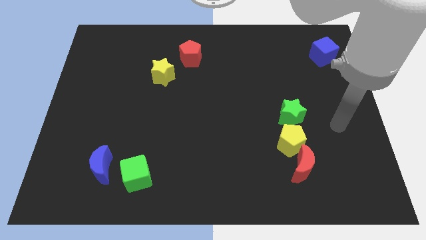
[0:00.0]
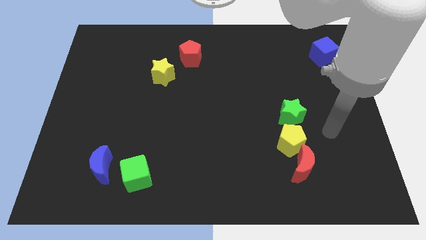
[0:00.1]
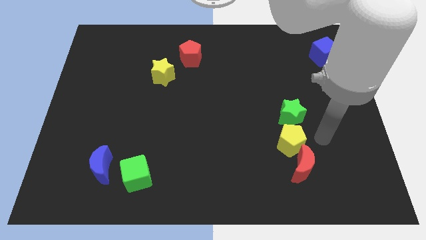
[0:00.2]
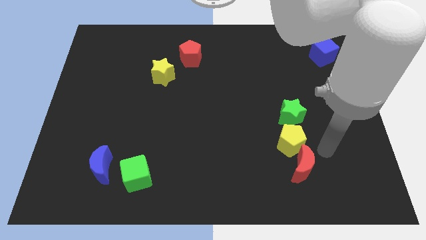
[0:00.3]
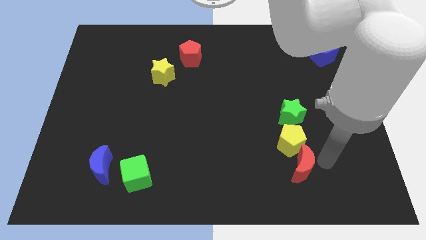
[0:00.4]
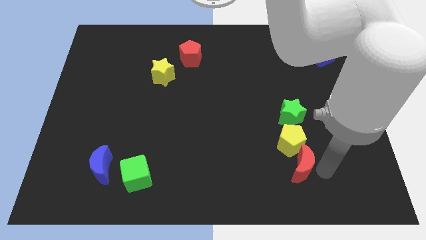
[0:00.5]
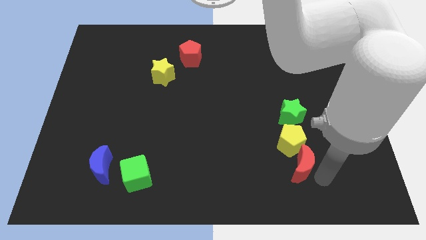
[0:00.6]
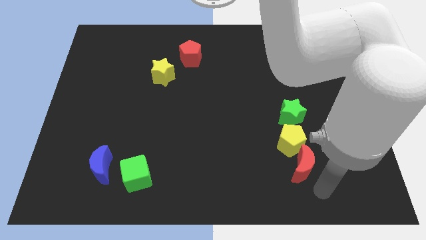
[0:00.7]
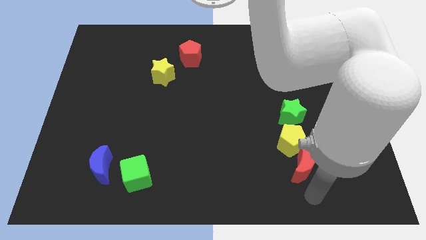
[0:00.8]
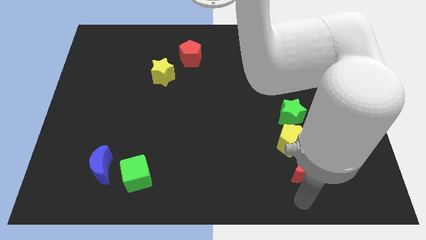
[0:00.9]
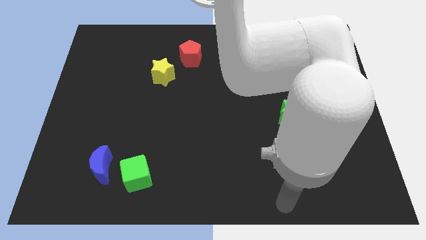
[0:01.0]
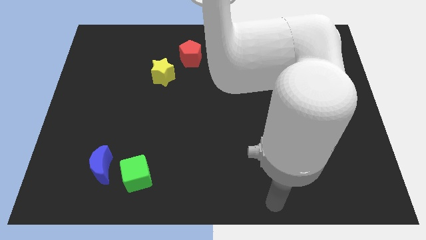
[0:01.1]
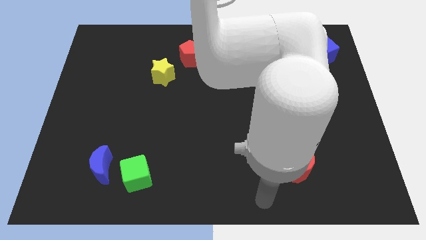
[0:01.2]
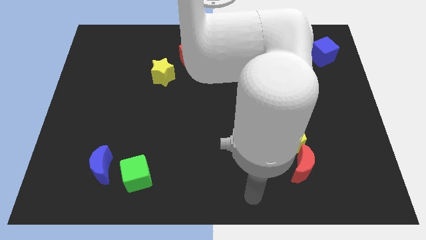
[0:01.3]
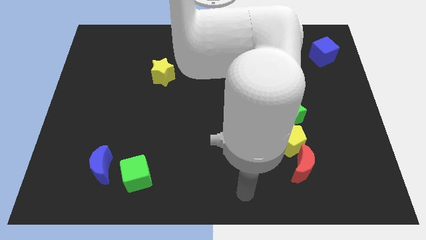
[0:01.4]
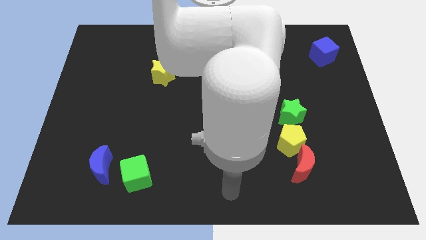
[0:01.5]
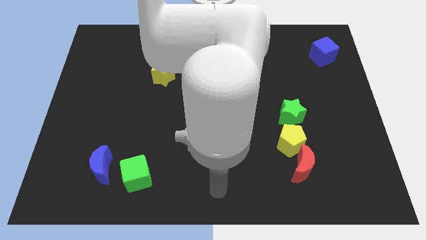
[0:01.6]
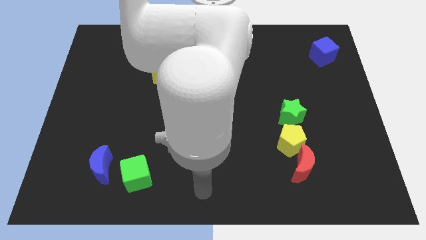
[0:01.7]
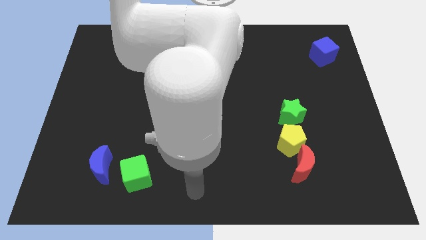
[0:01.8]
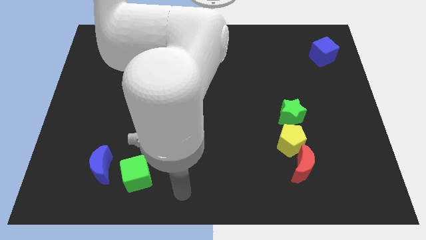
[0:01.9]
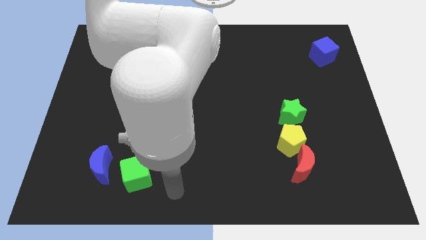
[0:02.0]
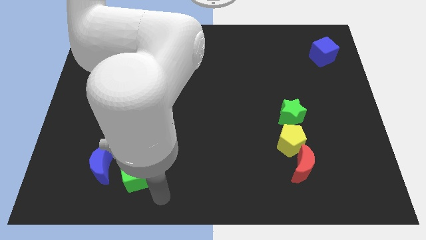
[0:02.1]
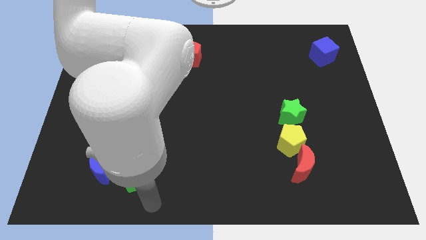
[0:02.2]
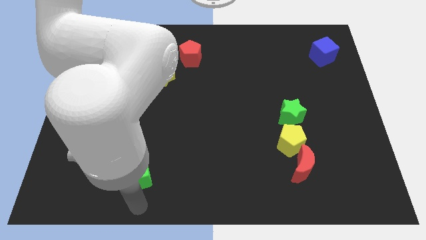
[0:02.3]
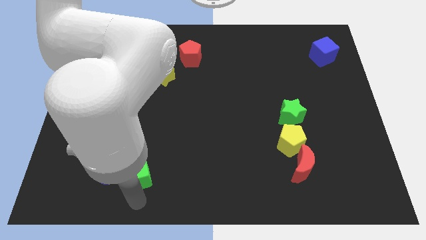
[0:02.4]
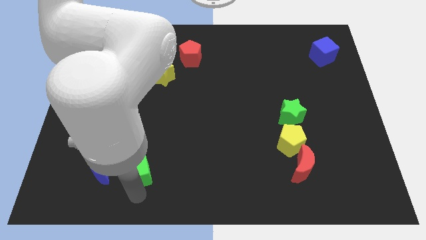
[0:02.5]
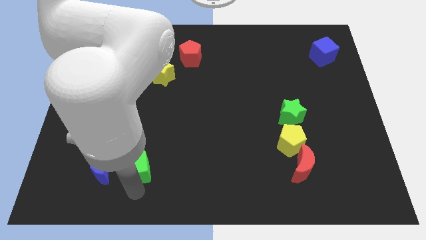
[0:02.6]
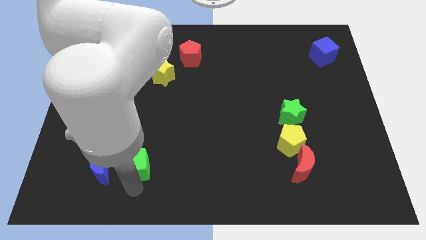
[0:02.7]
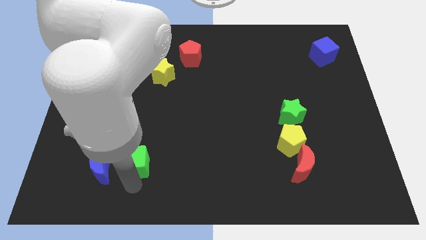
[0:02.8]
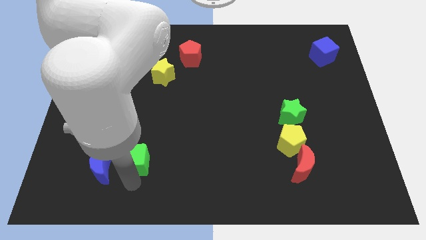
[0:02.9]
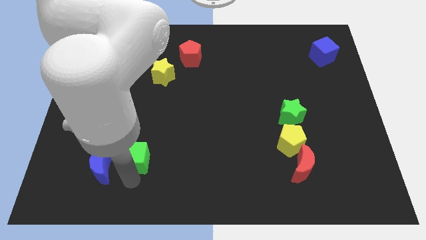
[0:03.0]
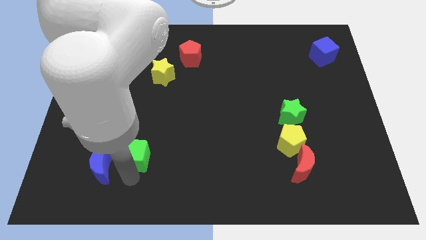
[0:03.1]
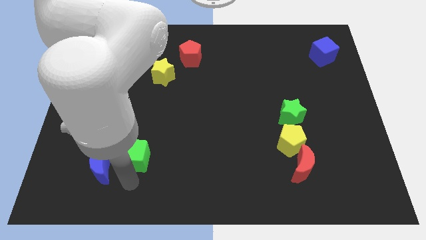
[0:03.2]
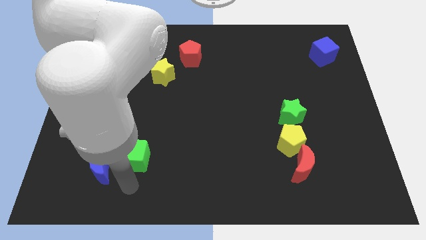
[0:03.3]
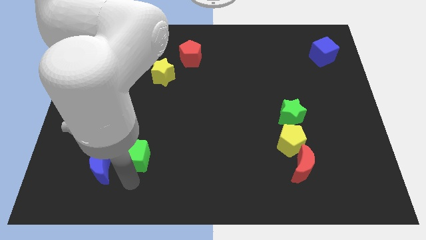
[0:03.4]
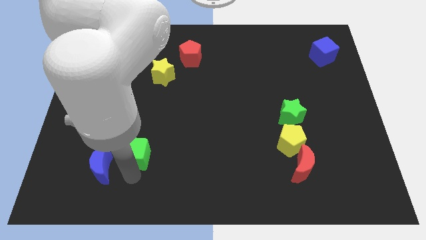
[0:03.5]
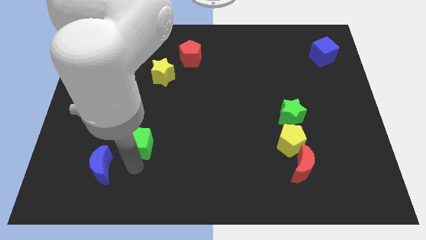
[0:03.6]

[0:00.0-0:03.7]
move the green cube a little upwards

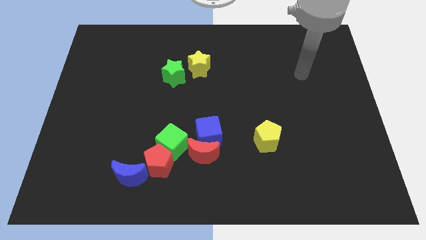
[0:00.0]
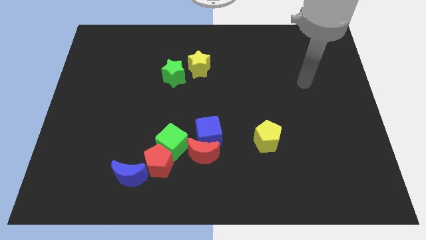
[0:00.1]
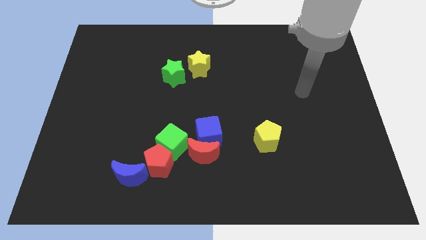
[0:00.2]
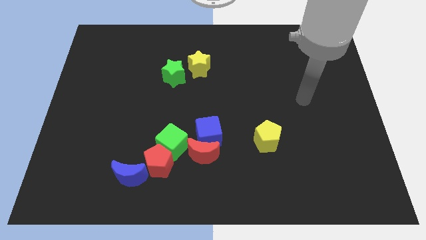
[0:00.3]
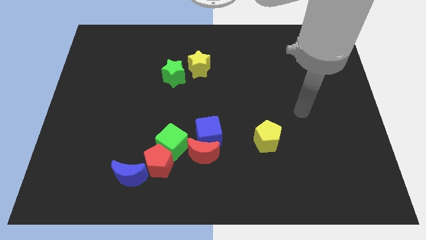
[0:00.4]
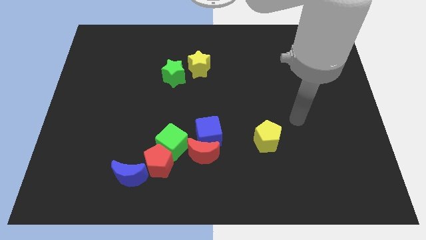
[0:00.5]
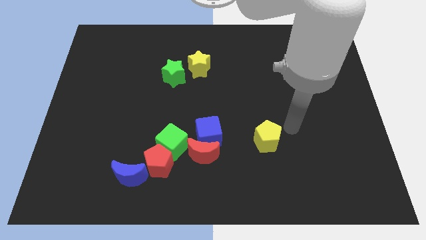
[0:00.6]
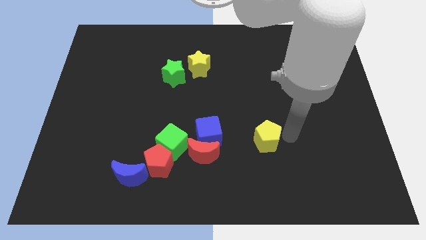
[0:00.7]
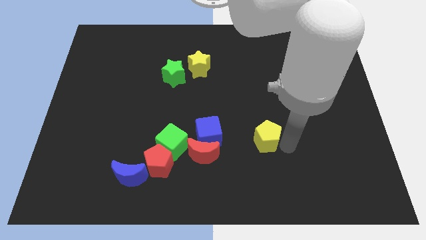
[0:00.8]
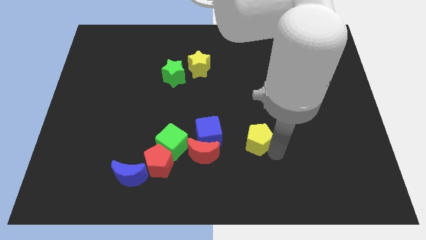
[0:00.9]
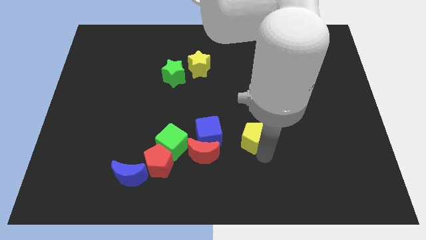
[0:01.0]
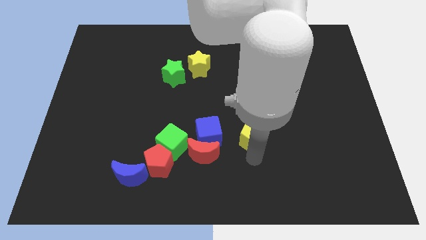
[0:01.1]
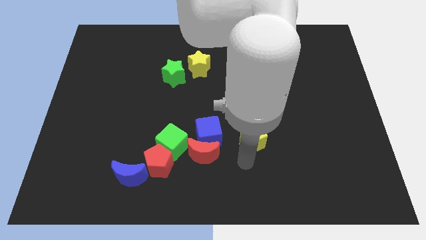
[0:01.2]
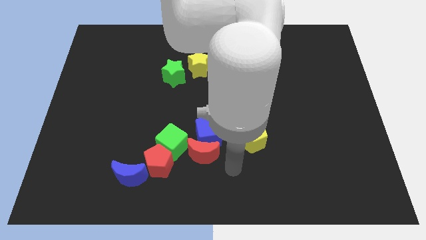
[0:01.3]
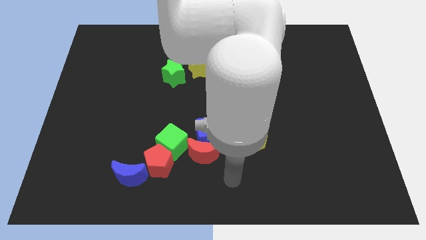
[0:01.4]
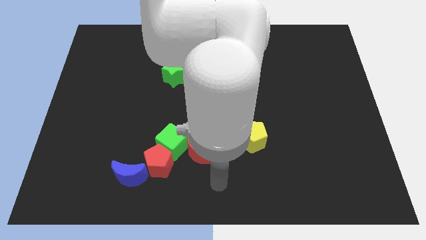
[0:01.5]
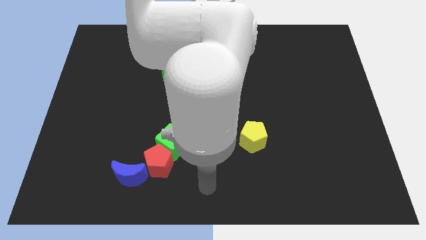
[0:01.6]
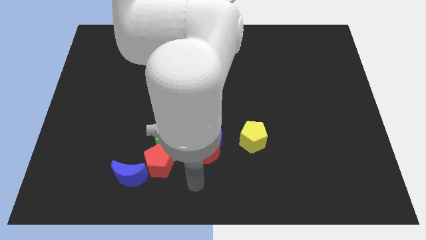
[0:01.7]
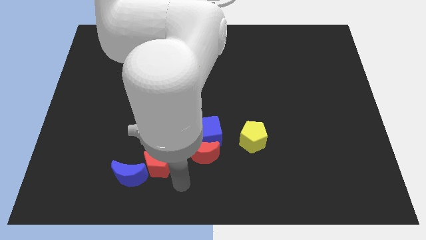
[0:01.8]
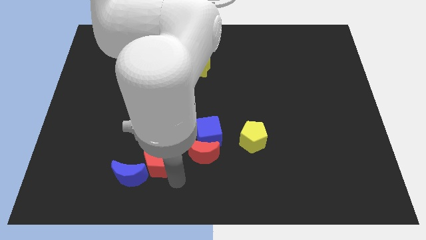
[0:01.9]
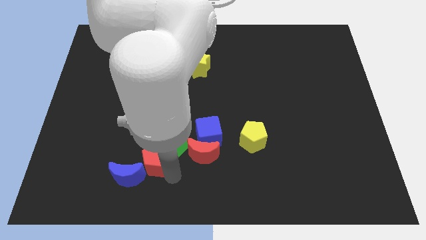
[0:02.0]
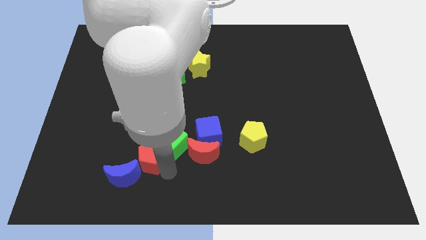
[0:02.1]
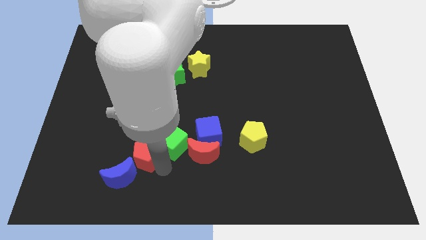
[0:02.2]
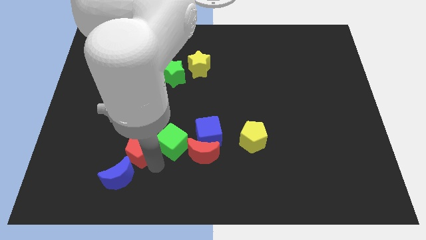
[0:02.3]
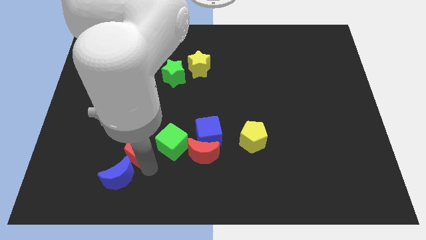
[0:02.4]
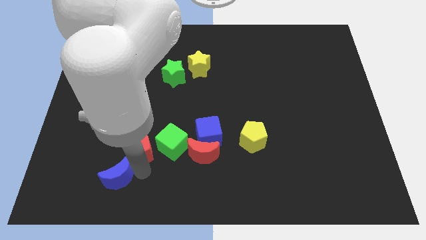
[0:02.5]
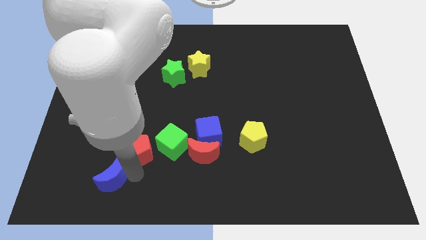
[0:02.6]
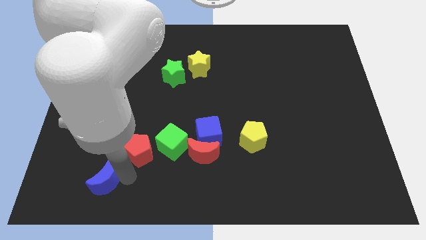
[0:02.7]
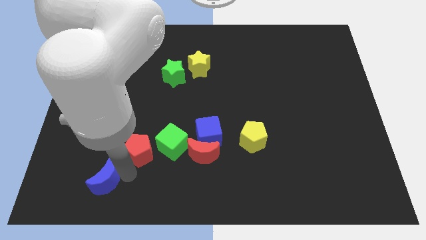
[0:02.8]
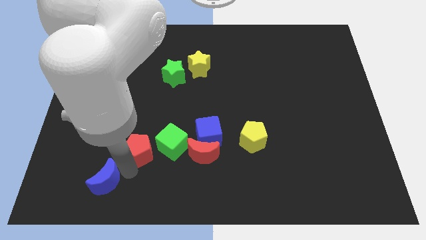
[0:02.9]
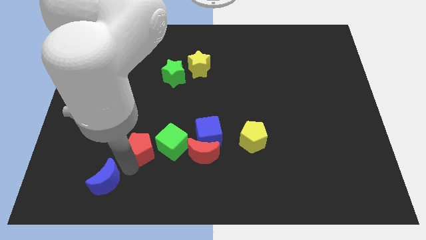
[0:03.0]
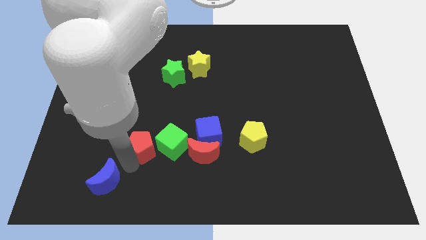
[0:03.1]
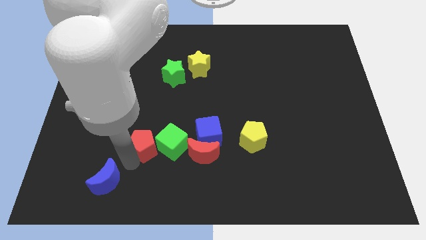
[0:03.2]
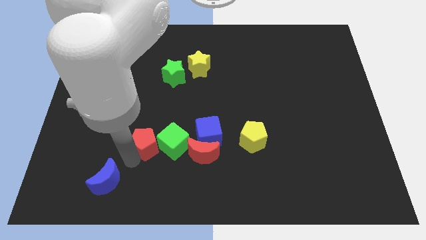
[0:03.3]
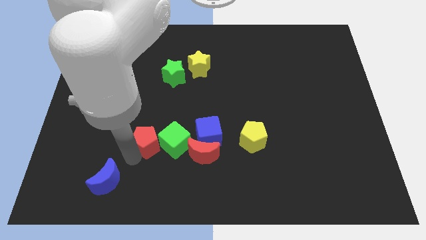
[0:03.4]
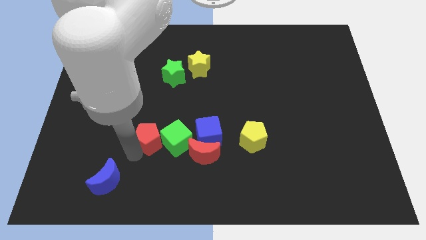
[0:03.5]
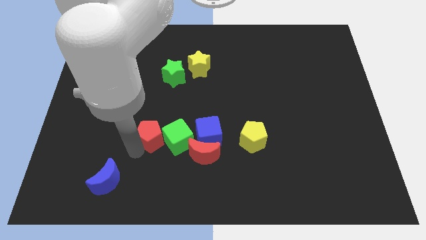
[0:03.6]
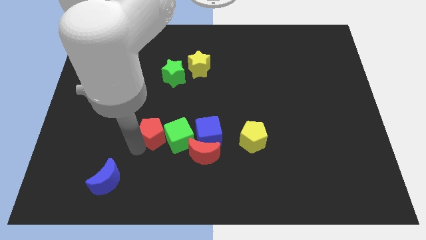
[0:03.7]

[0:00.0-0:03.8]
move the red pentagon up a bit

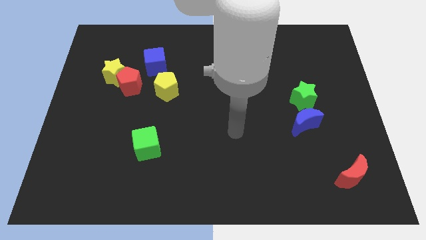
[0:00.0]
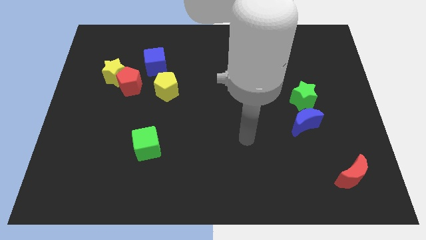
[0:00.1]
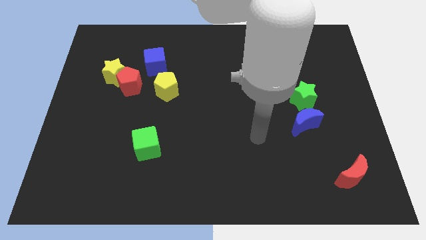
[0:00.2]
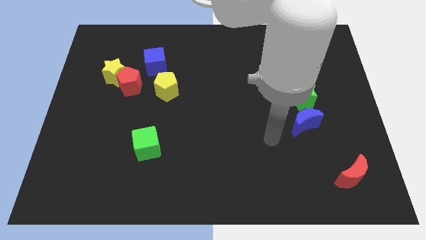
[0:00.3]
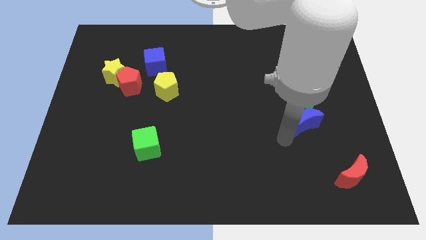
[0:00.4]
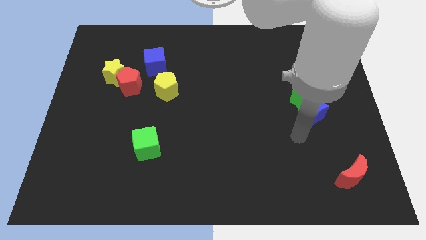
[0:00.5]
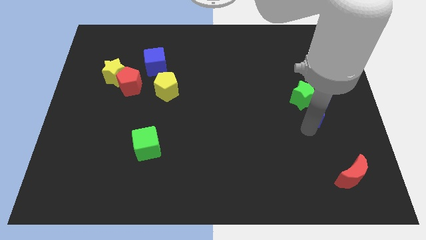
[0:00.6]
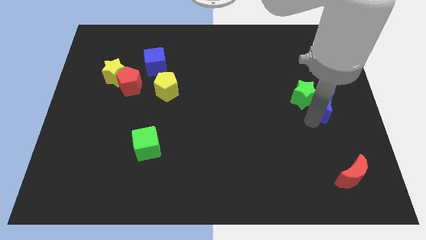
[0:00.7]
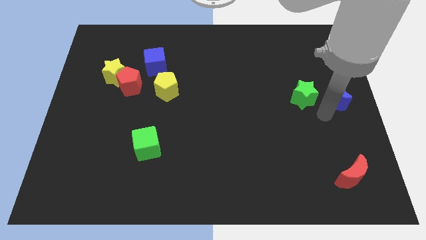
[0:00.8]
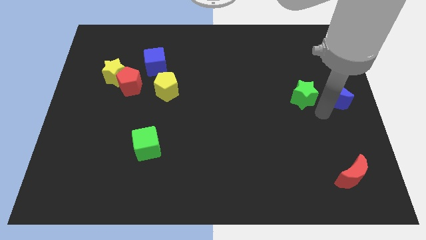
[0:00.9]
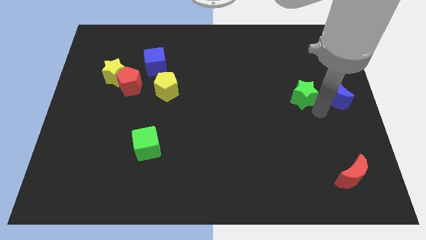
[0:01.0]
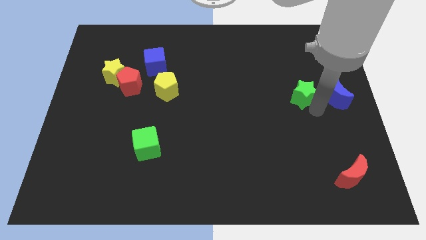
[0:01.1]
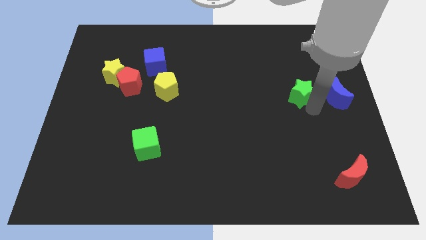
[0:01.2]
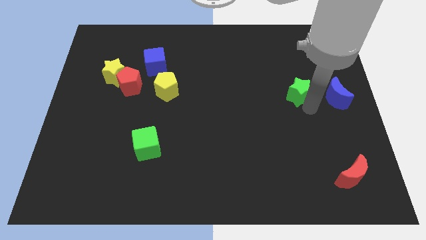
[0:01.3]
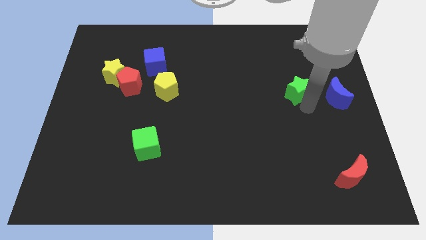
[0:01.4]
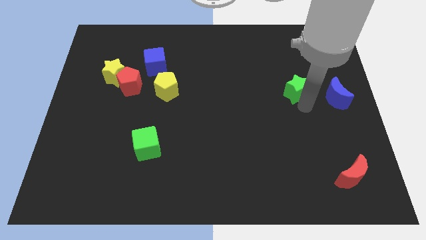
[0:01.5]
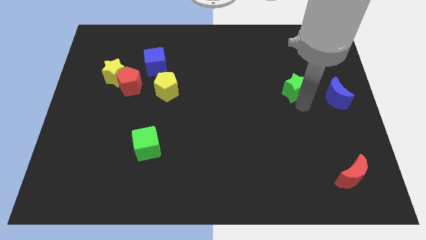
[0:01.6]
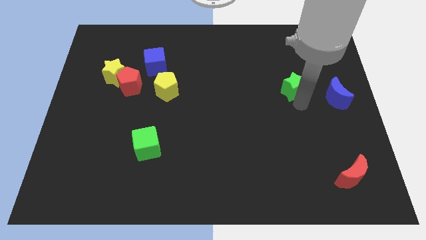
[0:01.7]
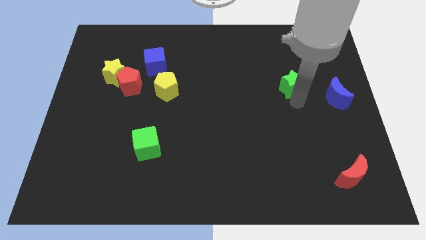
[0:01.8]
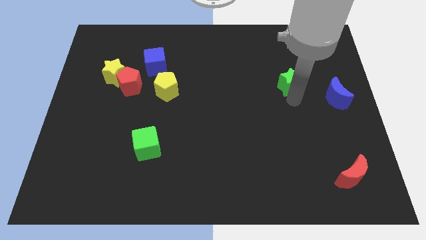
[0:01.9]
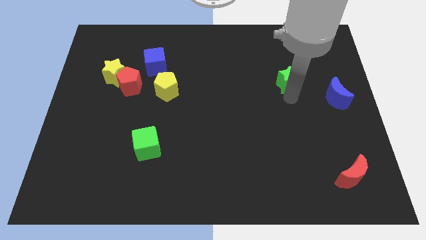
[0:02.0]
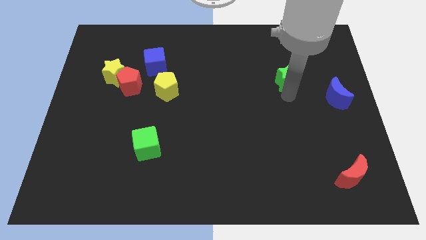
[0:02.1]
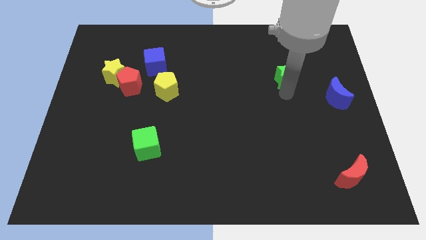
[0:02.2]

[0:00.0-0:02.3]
move the green star diagonally up and to the left a bit
